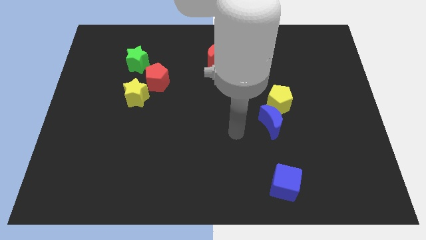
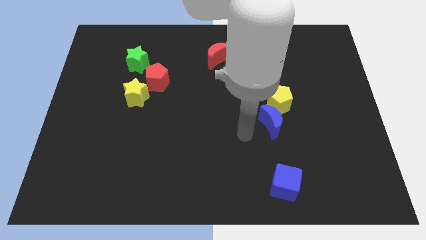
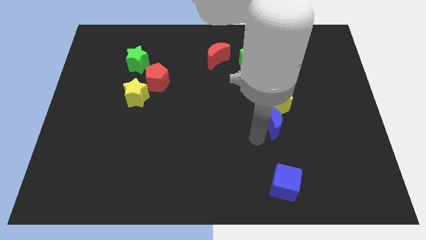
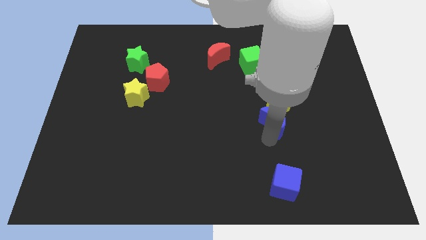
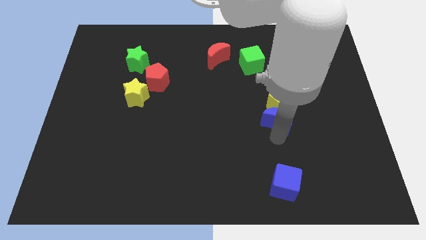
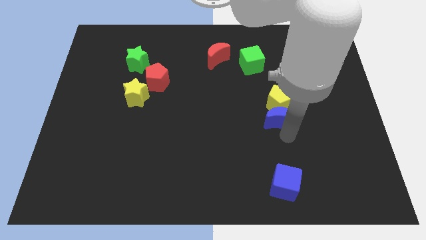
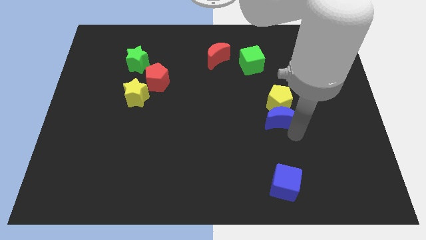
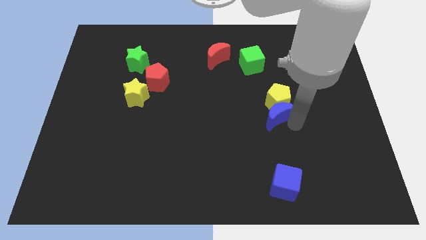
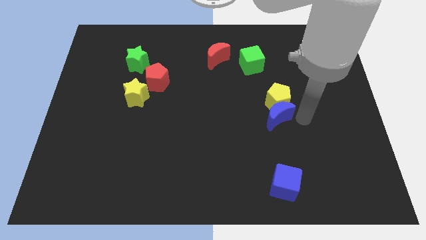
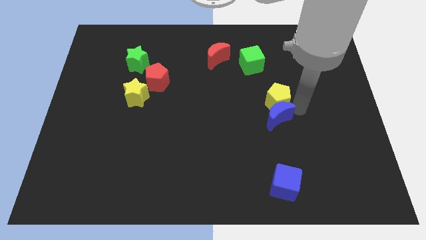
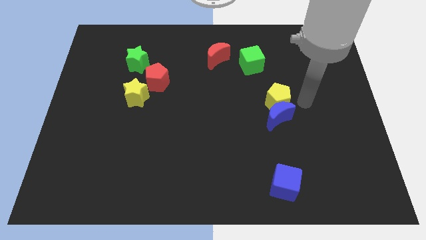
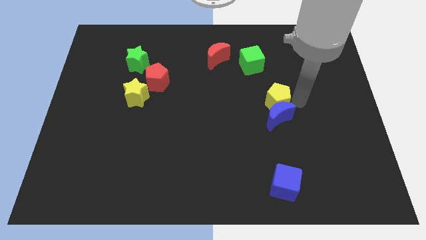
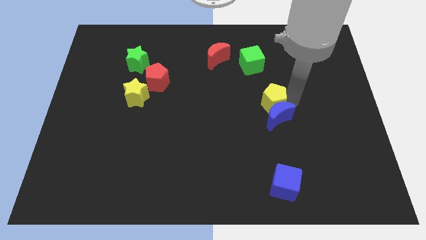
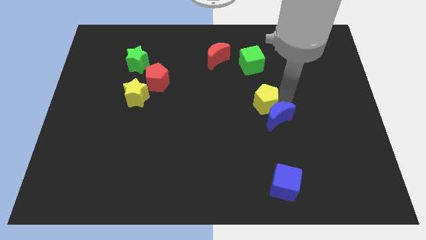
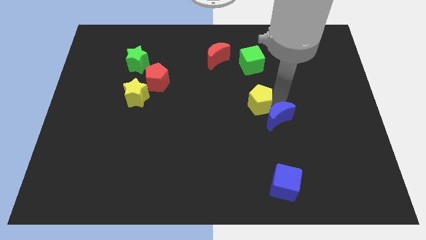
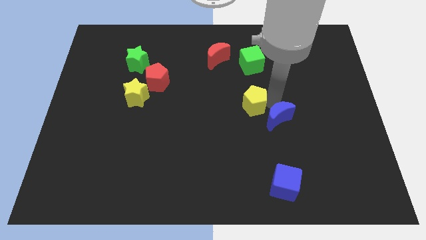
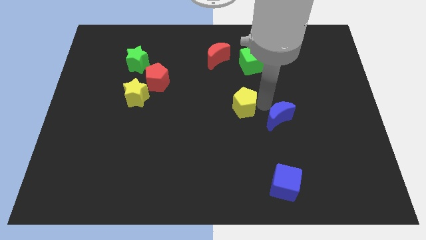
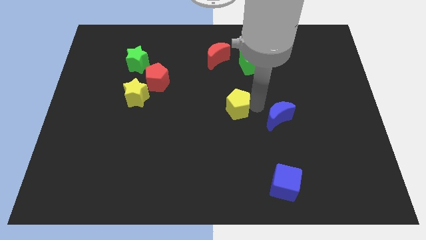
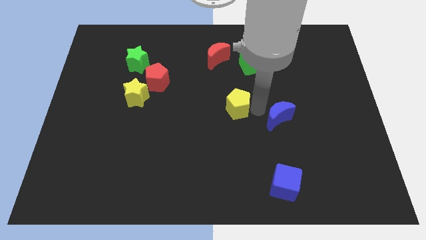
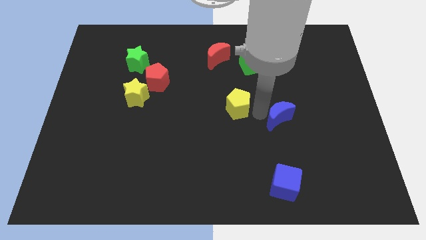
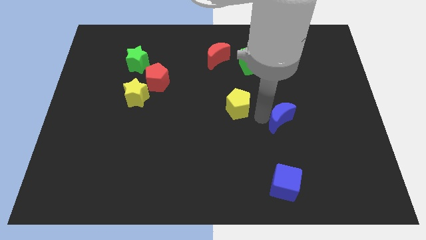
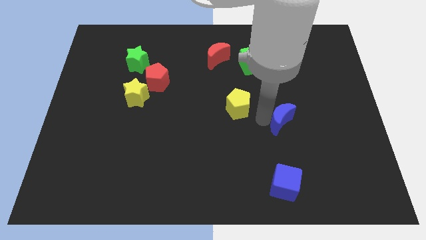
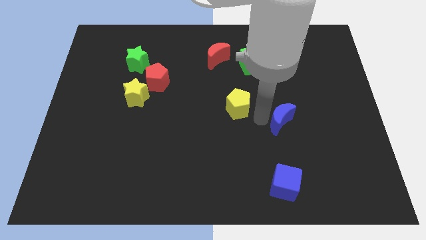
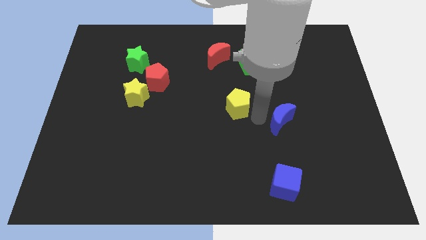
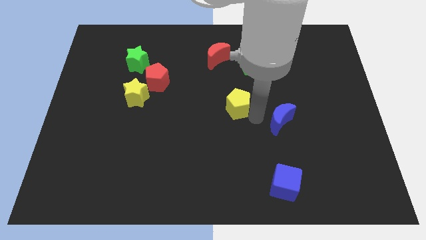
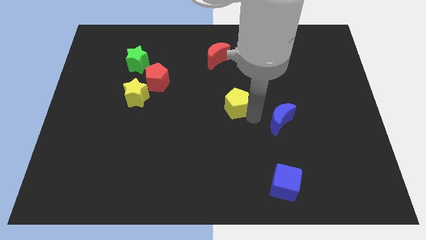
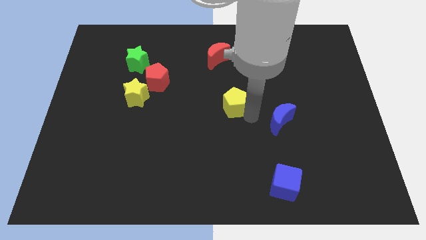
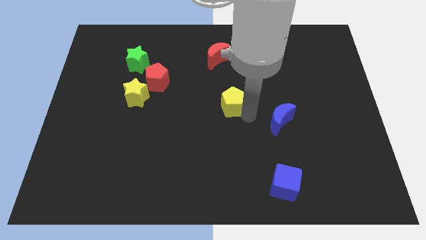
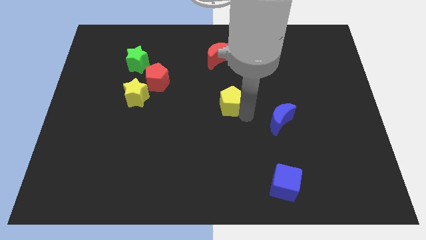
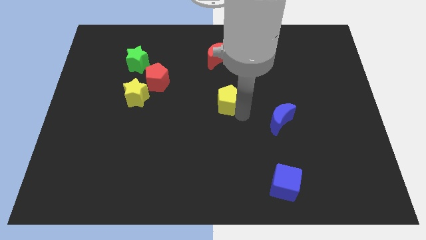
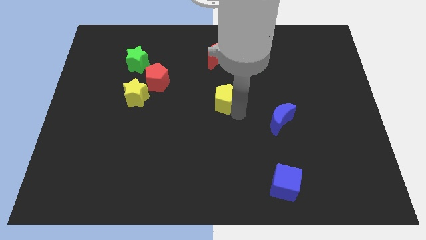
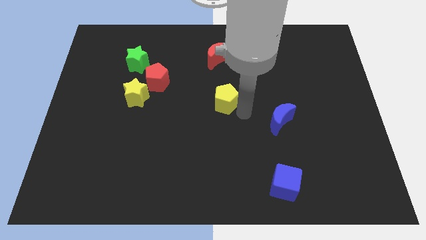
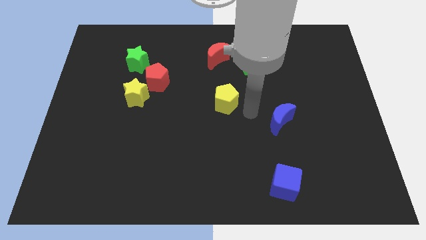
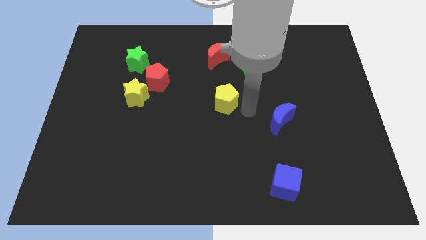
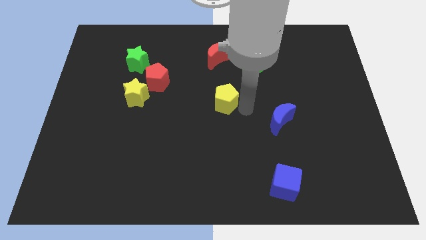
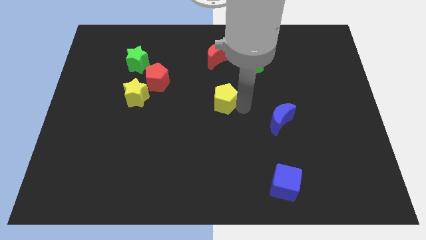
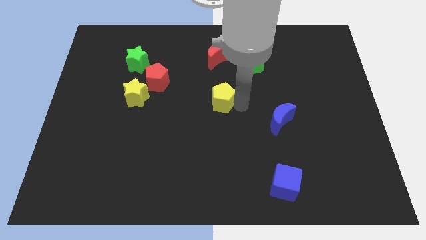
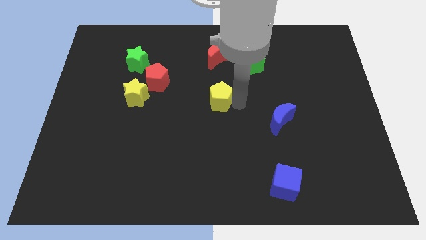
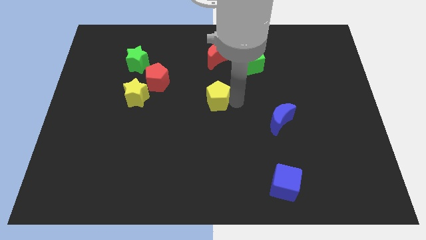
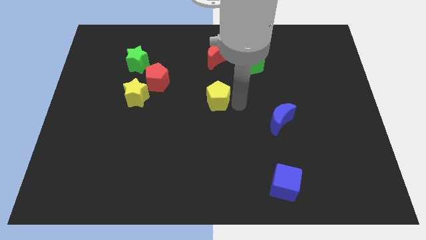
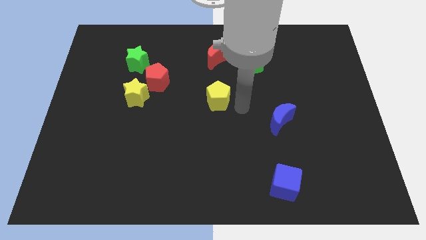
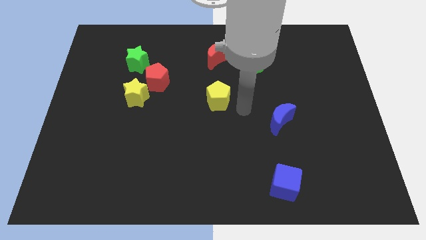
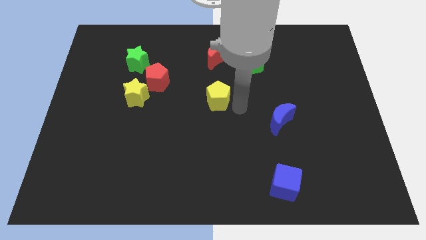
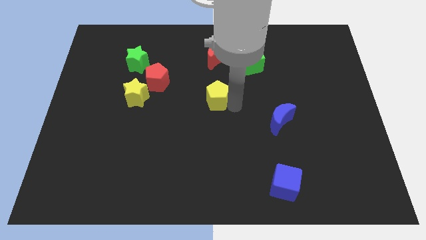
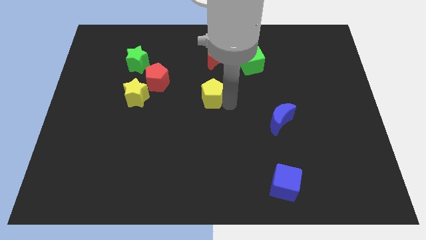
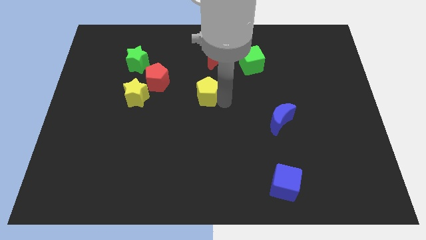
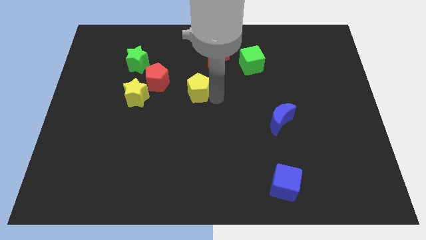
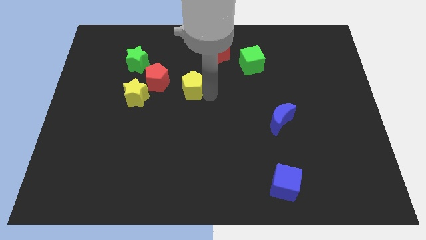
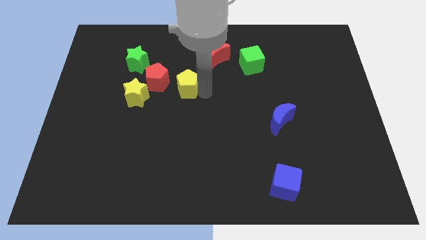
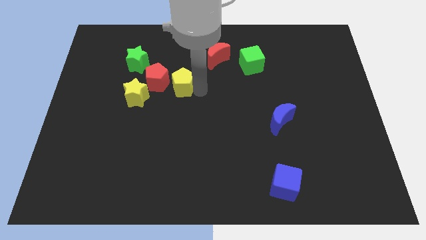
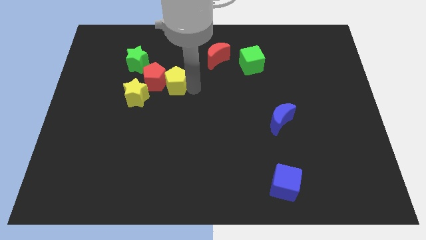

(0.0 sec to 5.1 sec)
push the yellow pentagon towards the red pentagon

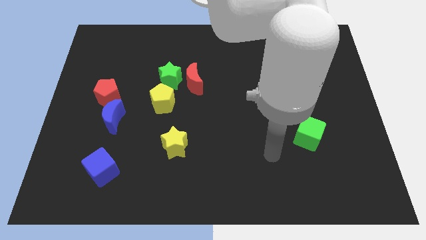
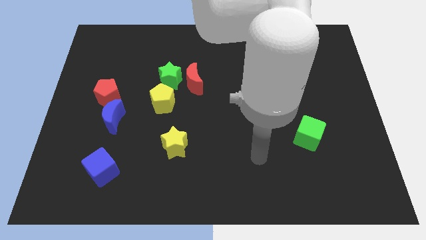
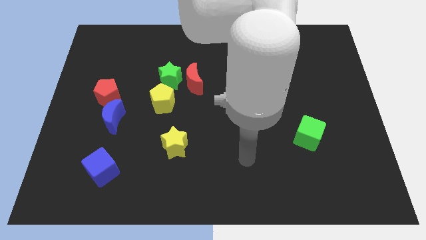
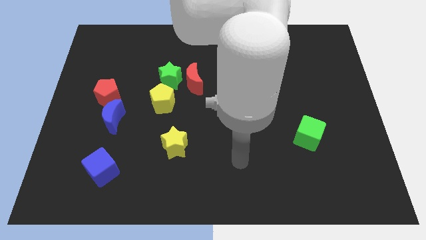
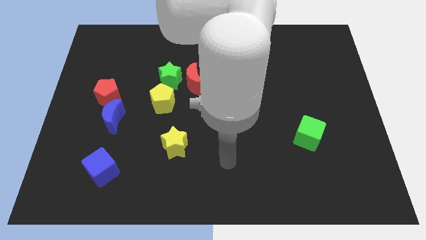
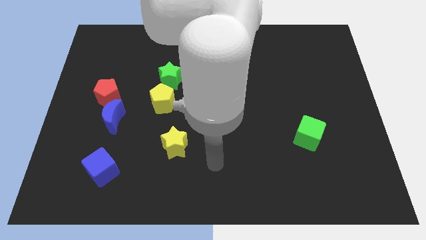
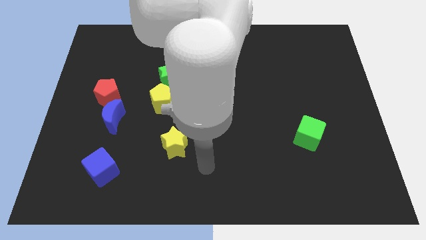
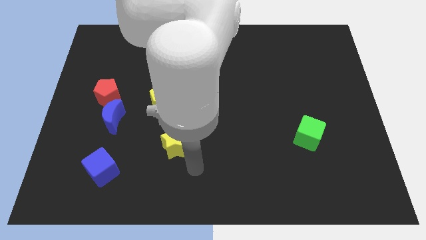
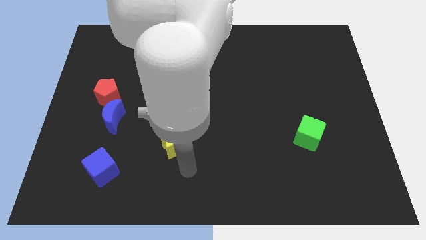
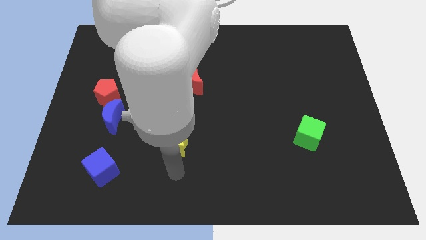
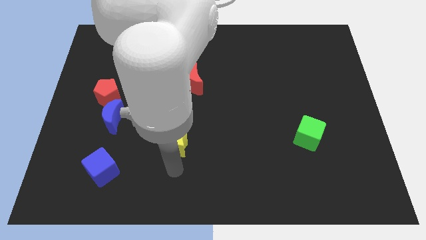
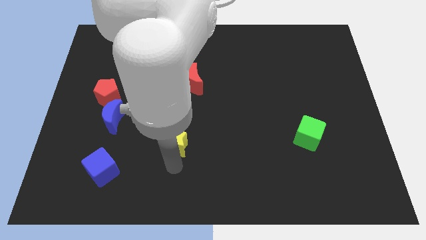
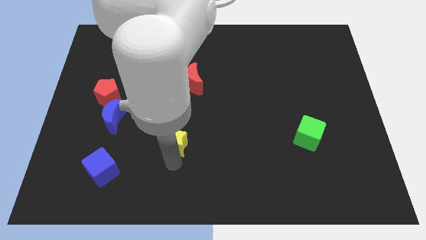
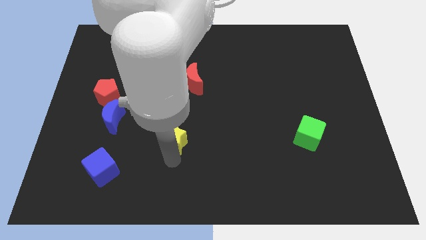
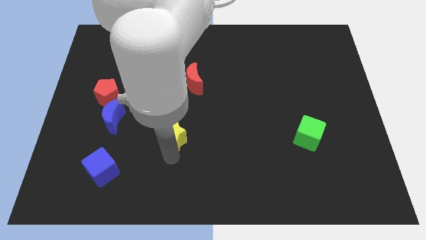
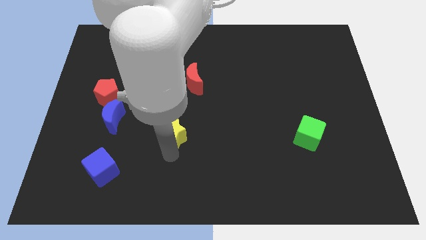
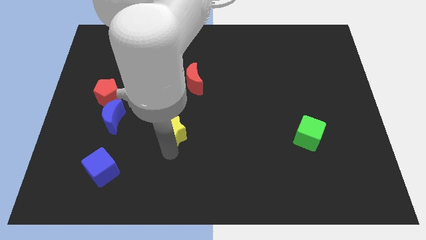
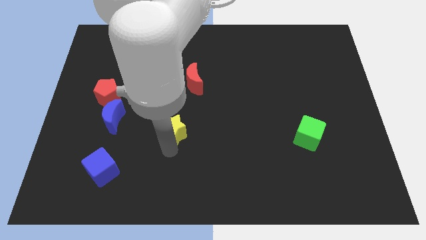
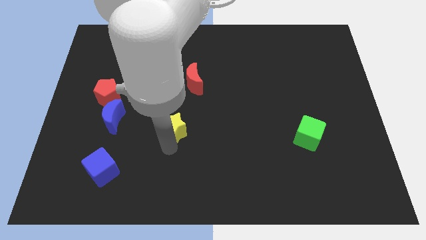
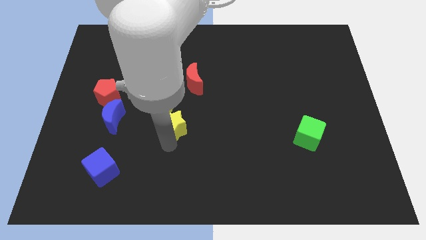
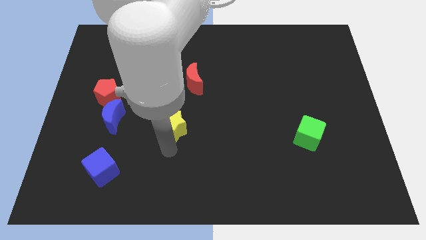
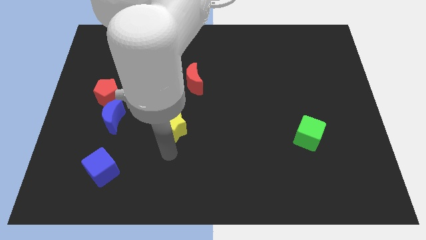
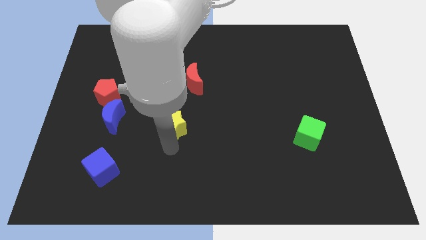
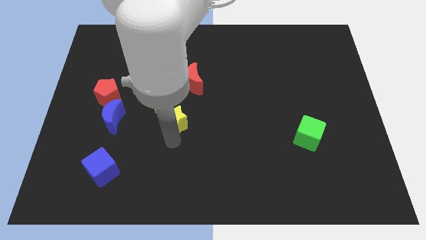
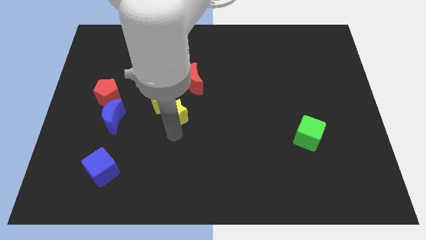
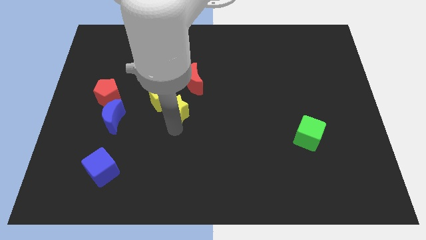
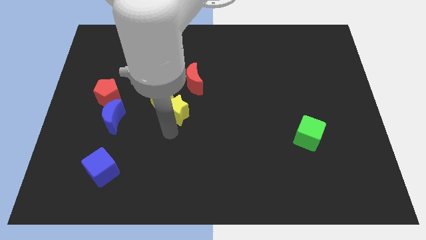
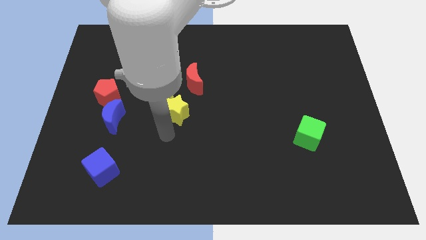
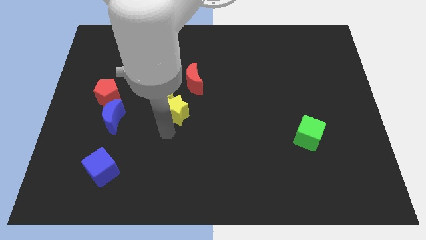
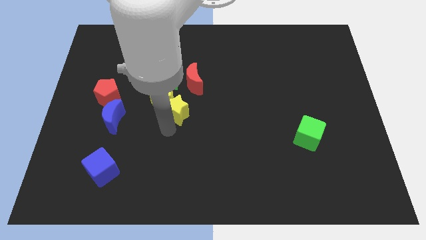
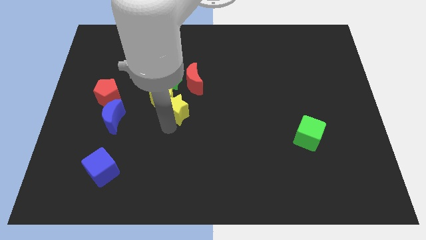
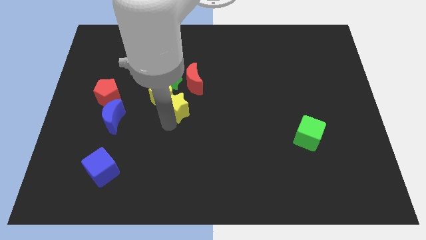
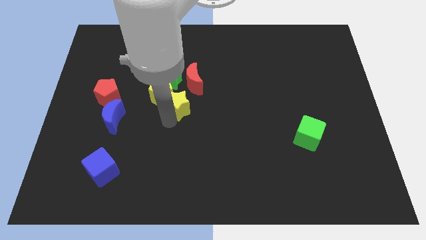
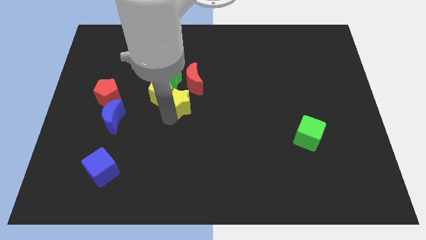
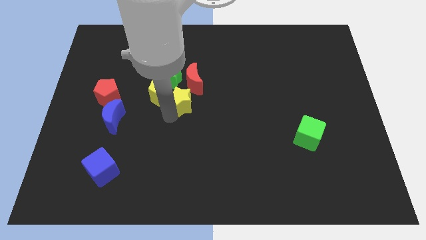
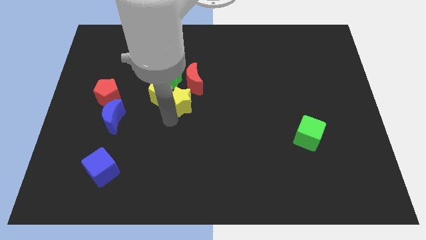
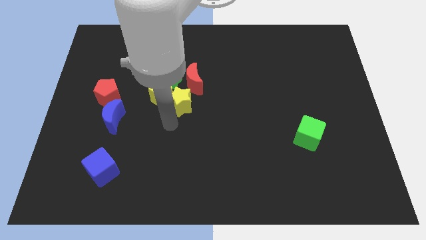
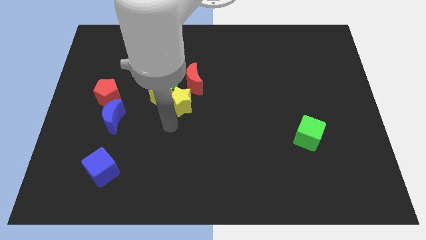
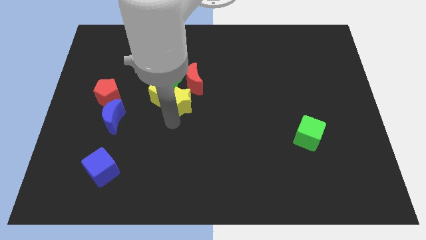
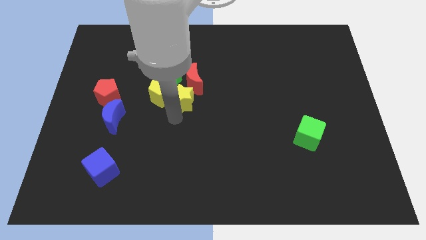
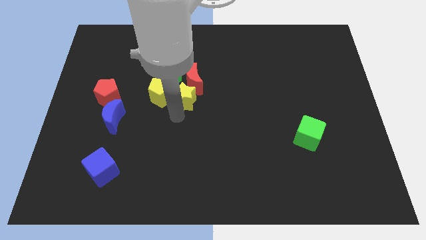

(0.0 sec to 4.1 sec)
slide the yellow star to the red moon
